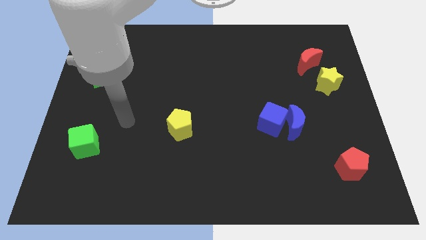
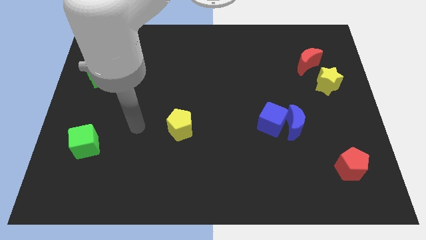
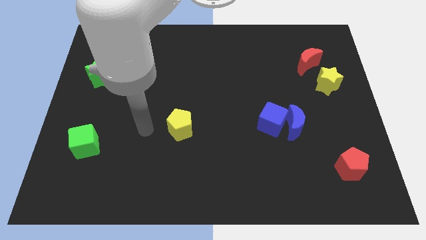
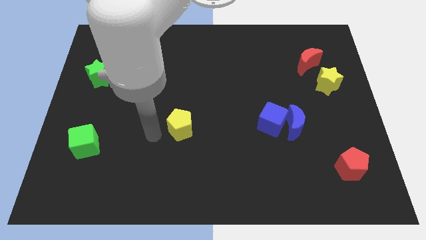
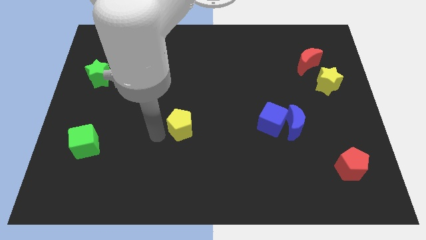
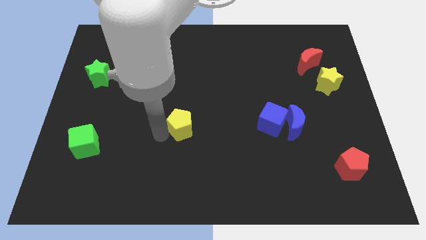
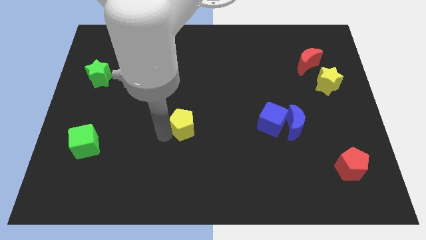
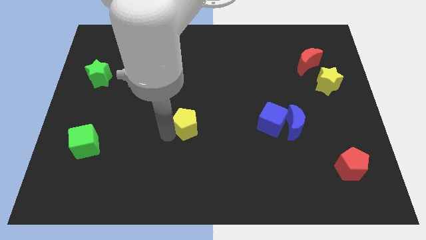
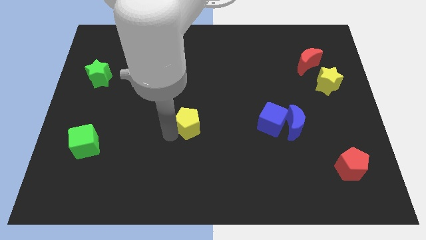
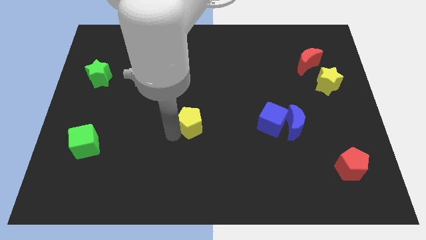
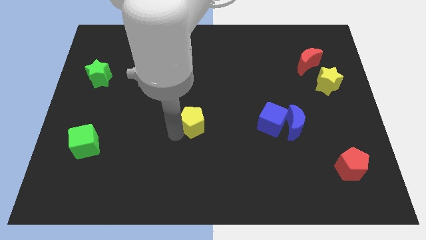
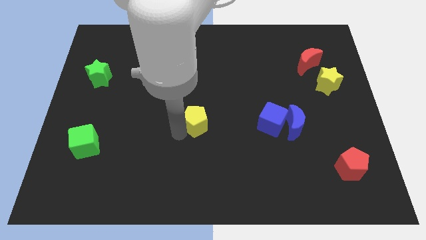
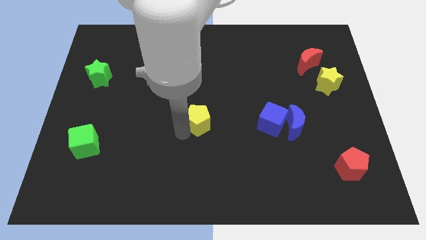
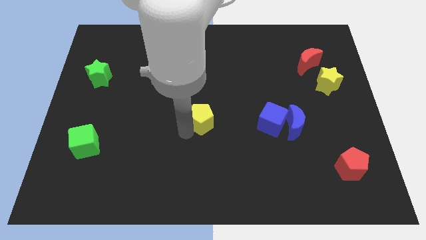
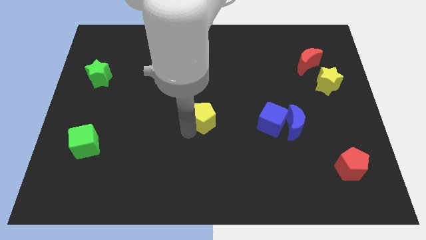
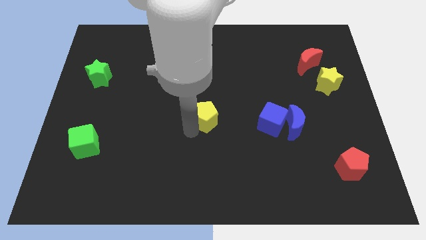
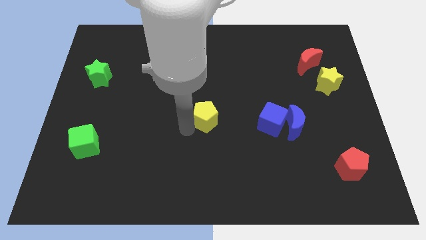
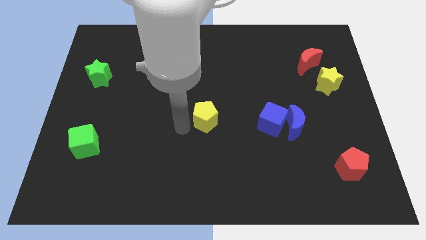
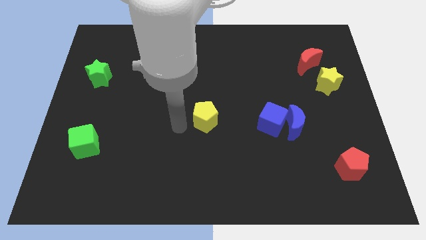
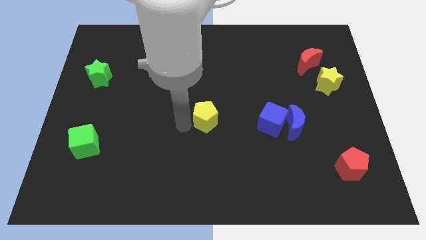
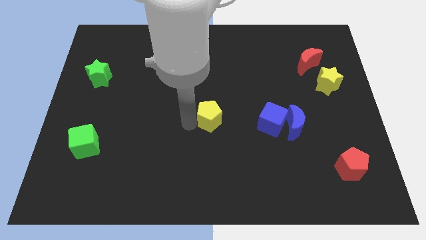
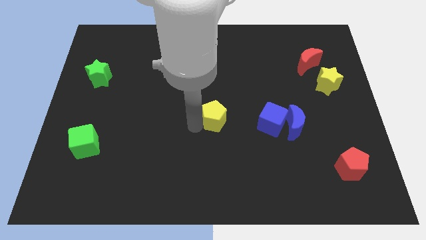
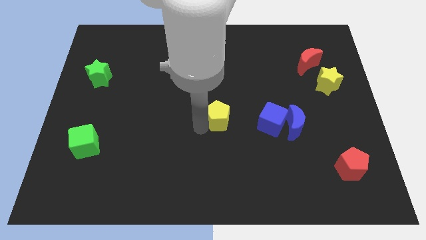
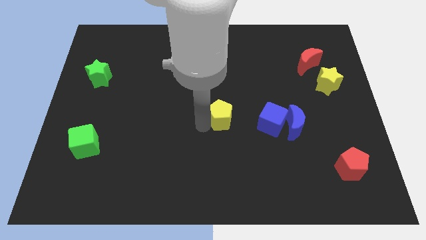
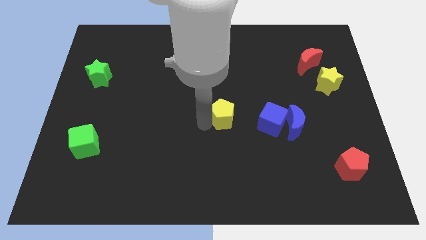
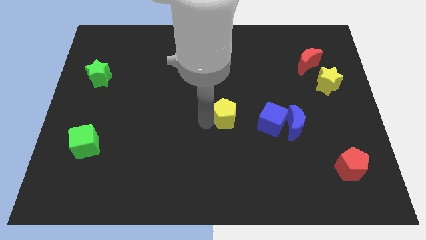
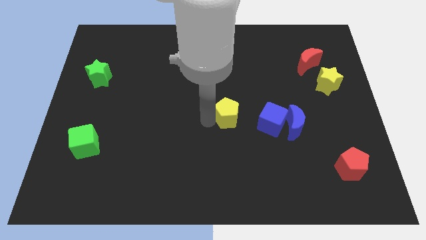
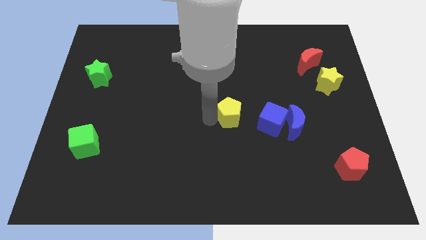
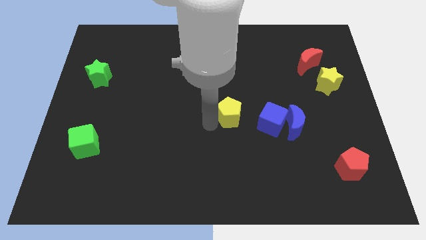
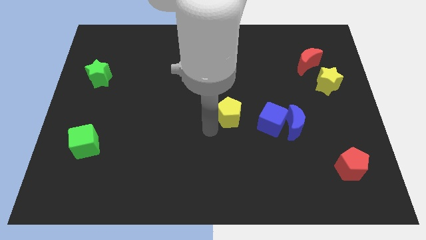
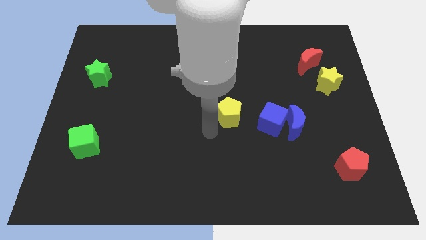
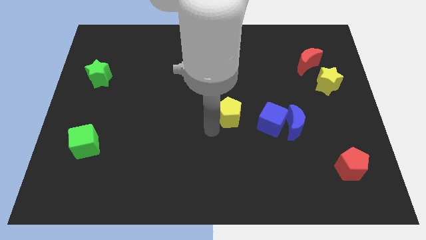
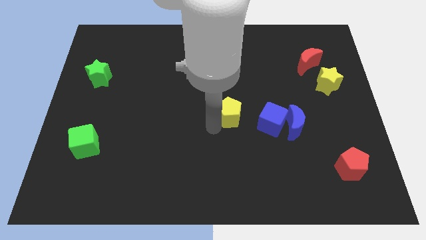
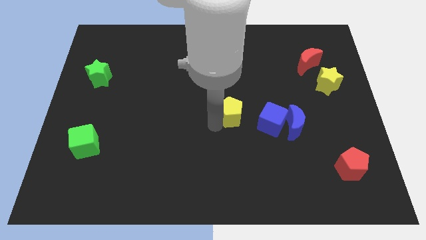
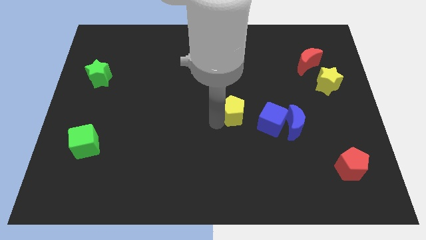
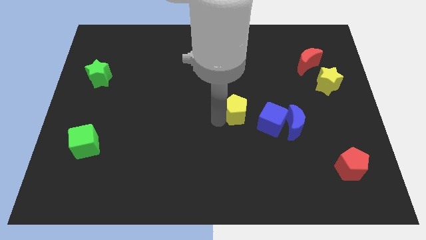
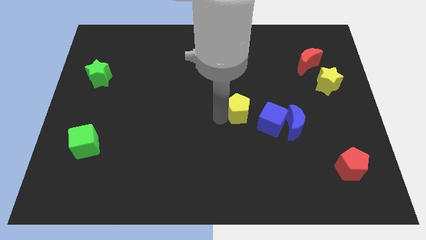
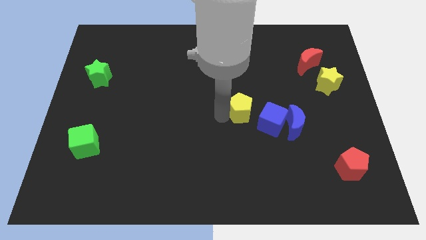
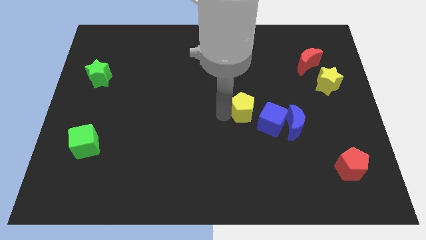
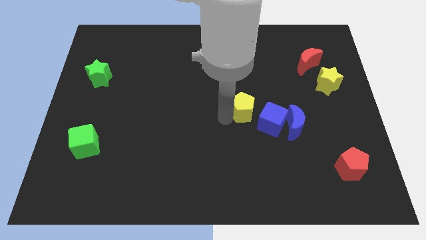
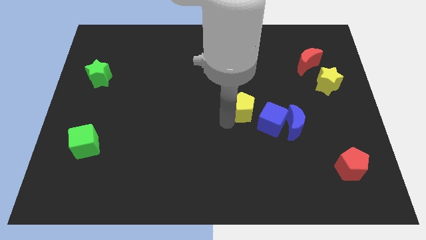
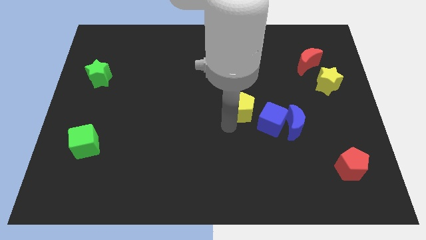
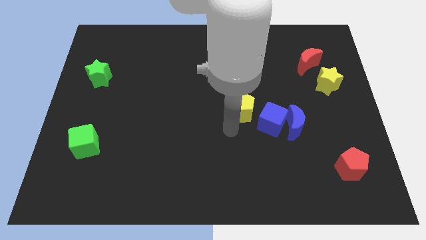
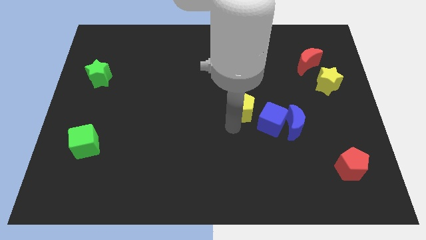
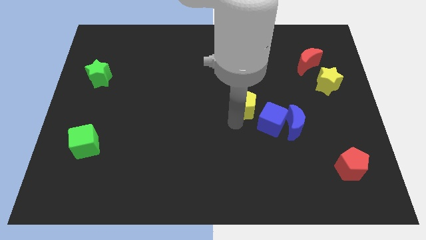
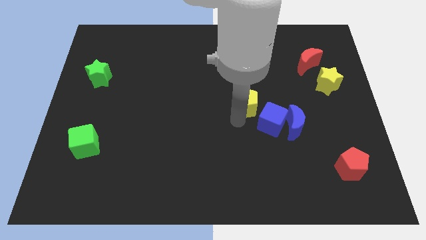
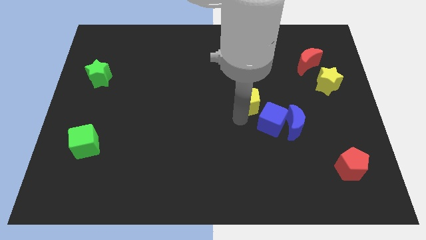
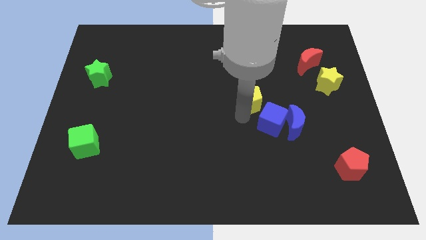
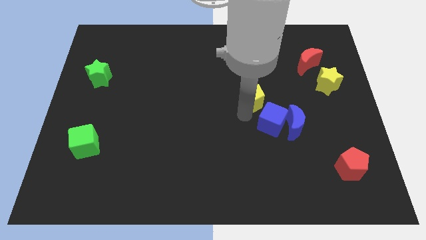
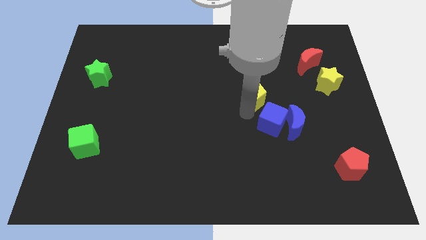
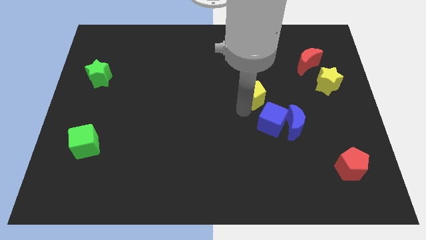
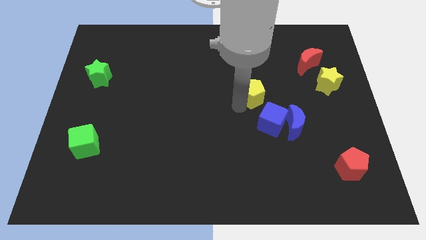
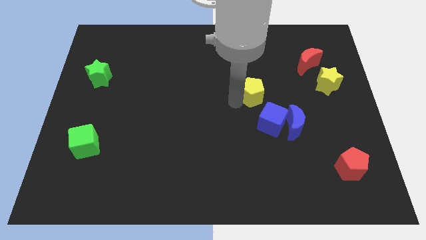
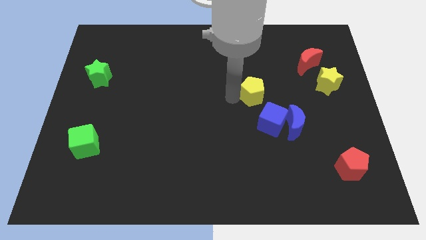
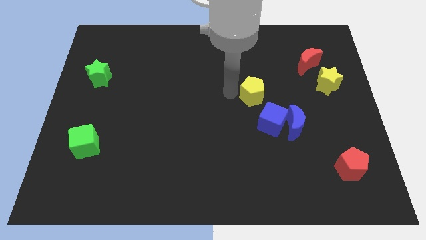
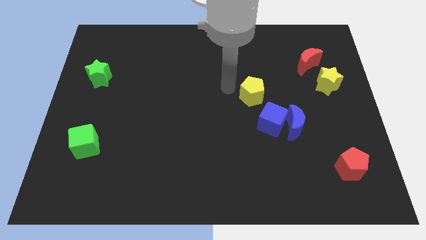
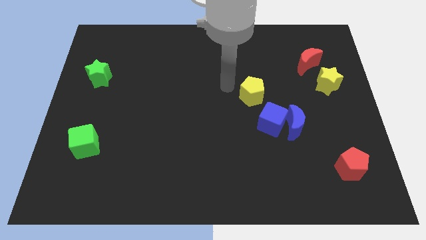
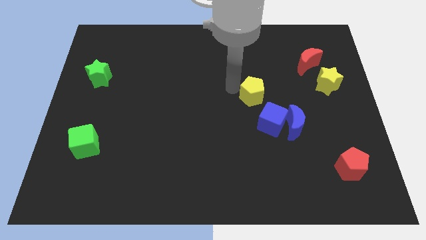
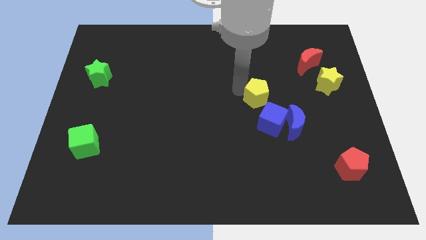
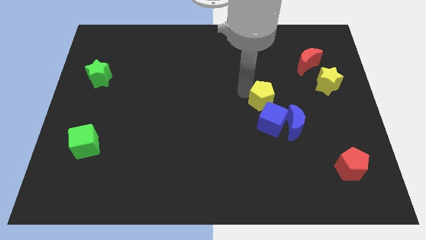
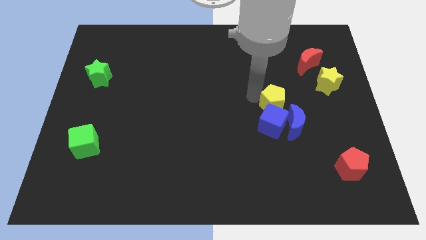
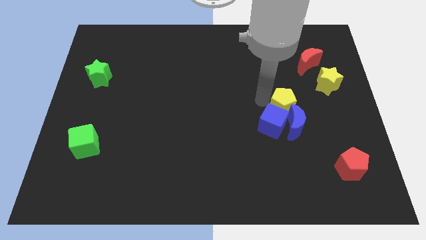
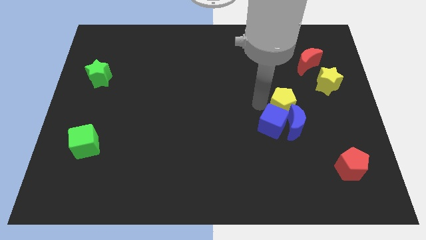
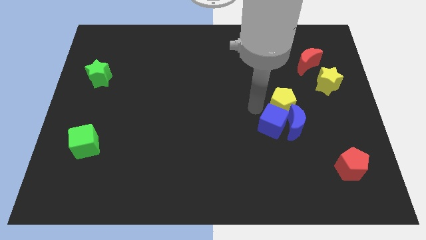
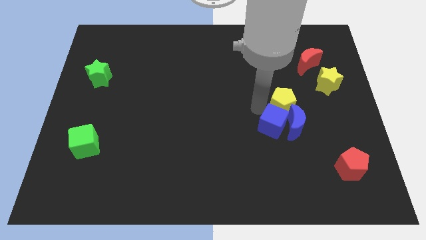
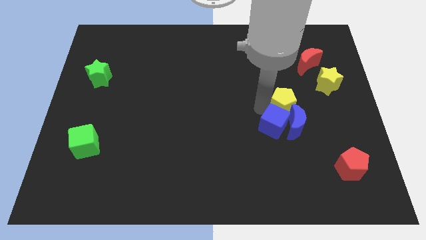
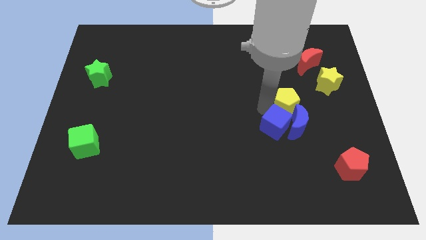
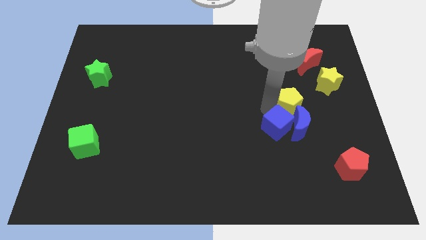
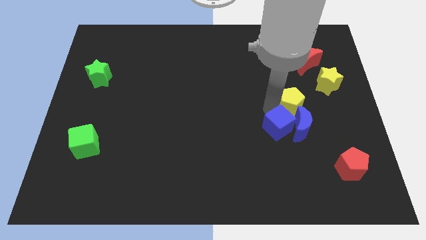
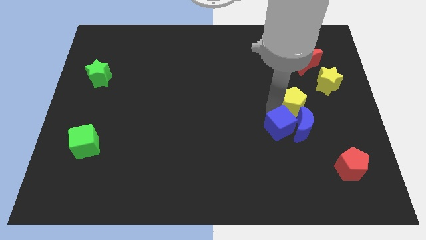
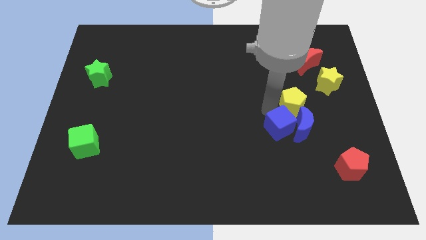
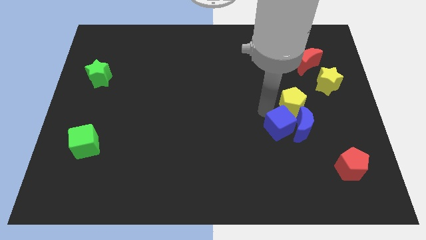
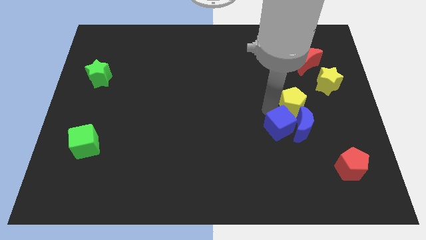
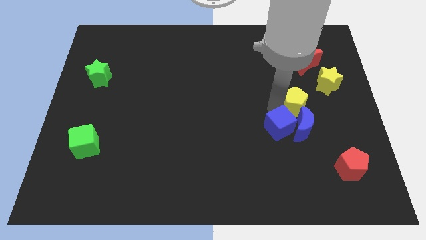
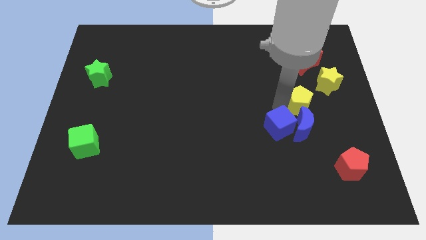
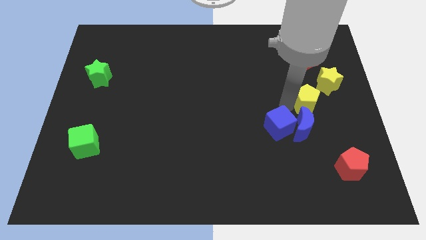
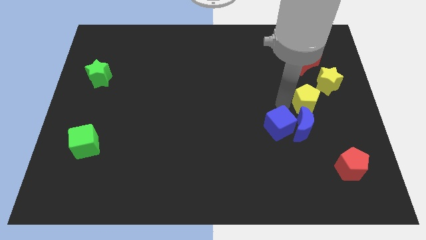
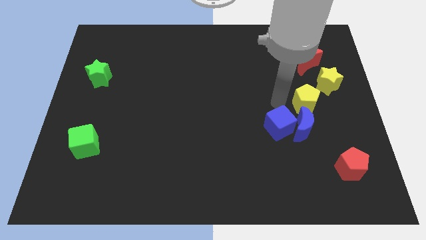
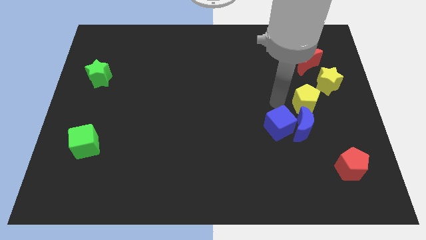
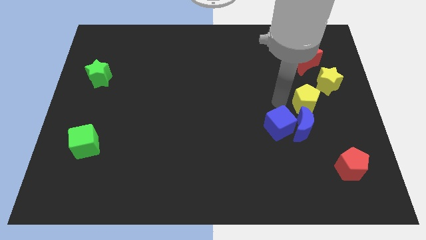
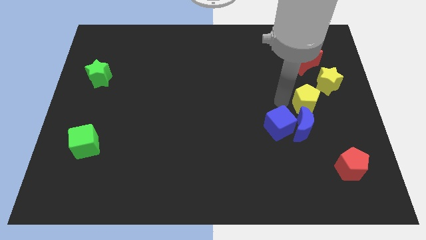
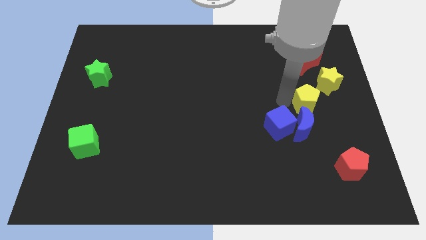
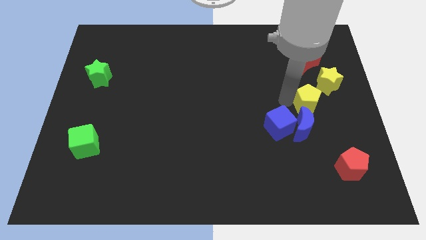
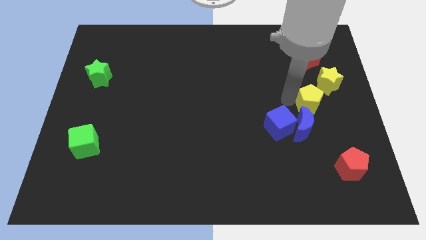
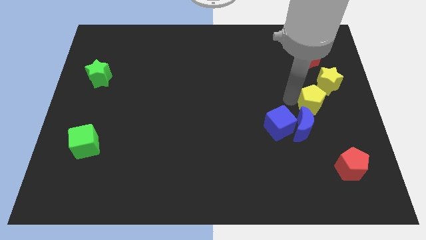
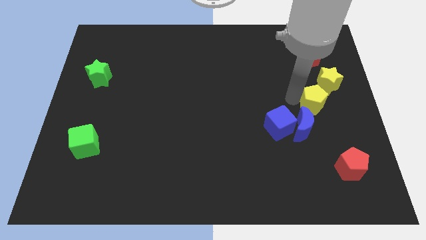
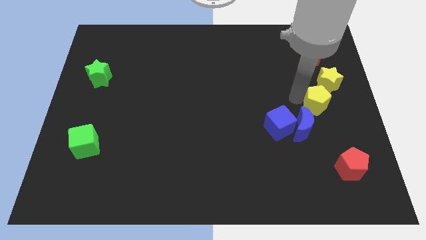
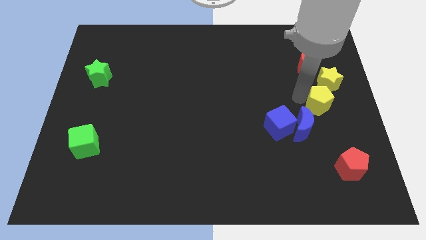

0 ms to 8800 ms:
put the yellow pentagon to the center right
